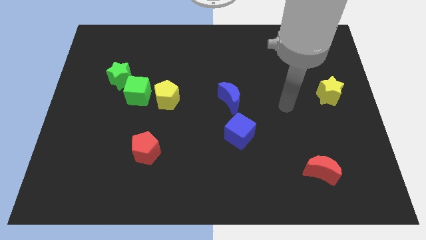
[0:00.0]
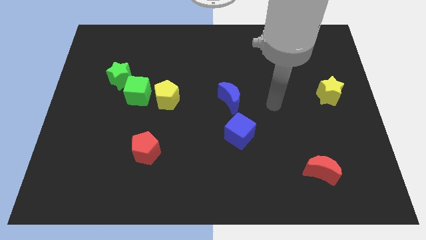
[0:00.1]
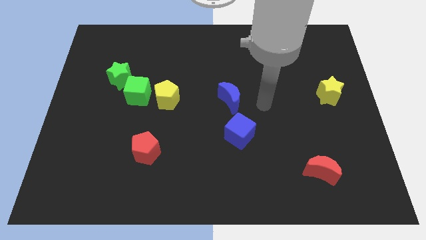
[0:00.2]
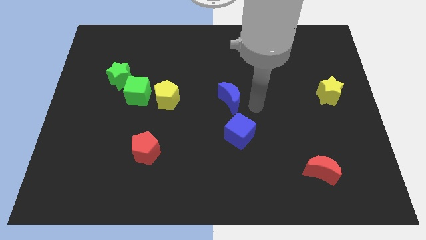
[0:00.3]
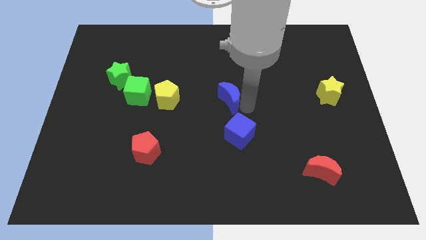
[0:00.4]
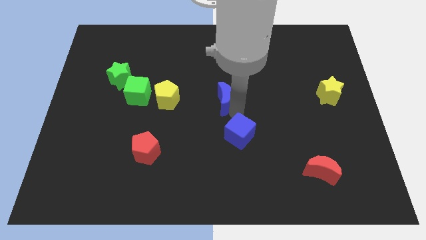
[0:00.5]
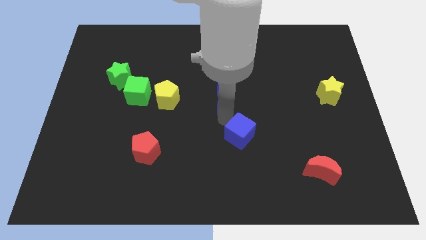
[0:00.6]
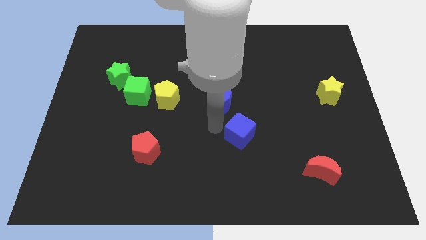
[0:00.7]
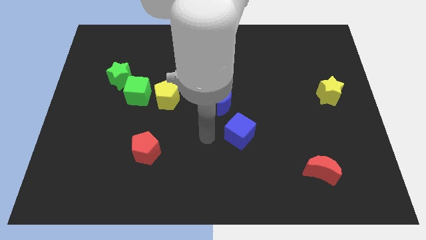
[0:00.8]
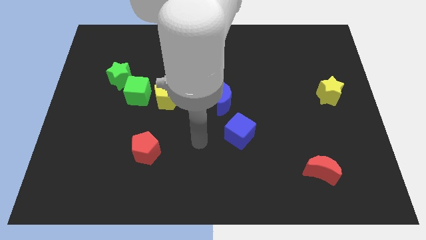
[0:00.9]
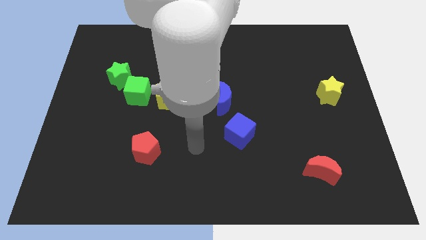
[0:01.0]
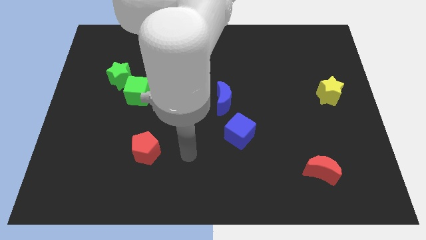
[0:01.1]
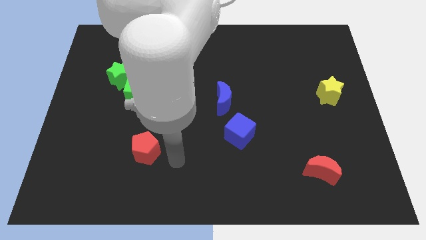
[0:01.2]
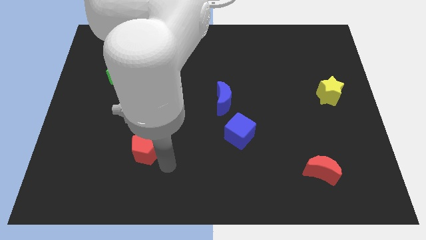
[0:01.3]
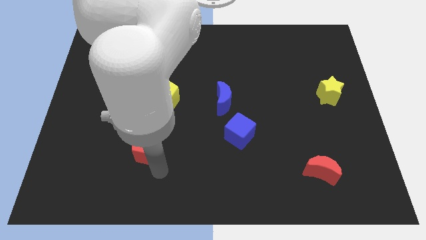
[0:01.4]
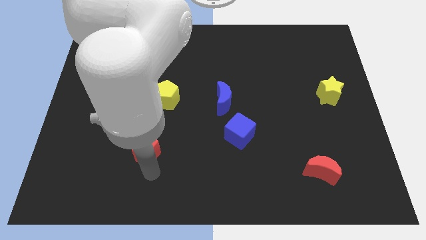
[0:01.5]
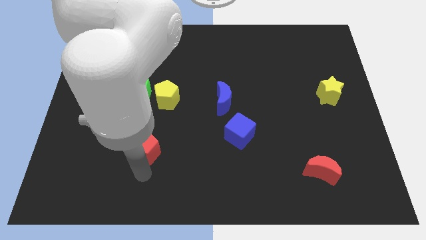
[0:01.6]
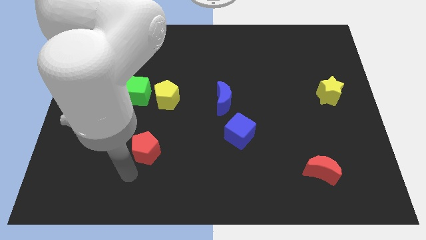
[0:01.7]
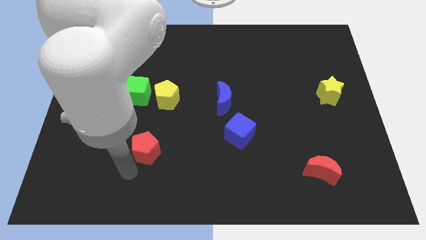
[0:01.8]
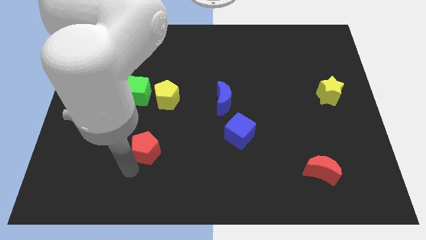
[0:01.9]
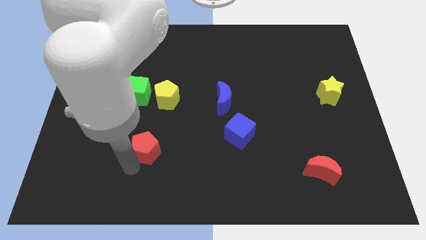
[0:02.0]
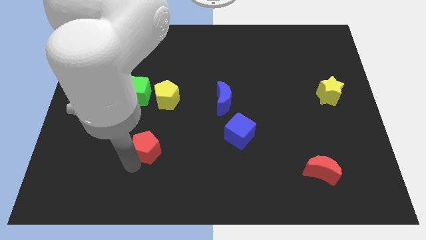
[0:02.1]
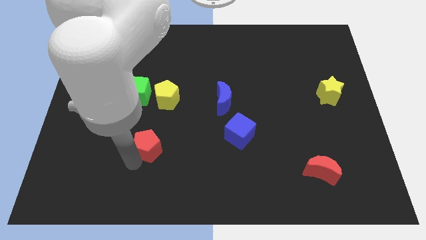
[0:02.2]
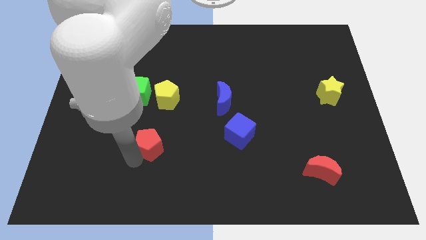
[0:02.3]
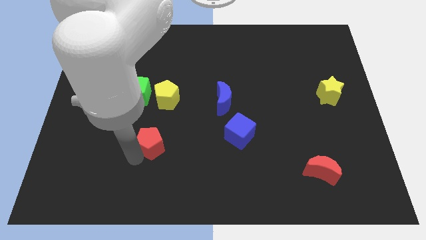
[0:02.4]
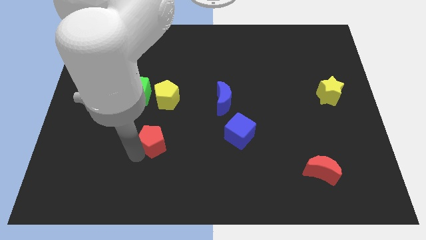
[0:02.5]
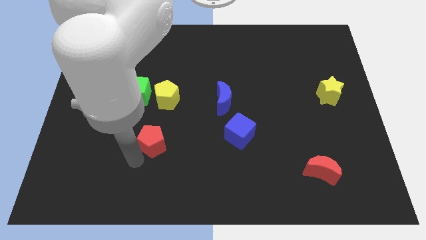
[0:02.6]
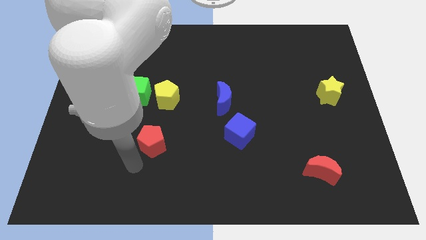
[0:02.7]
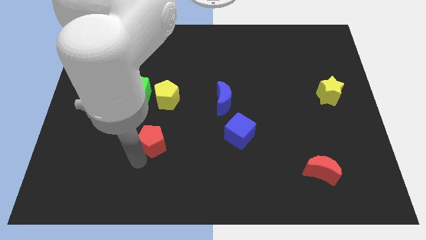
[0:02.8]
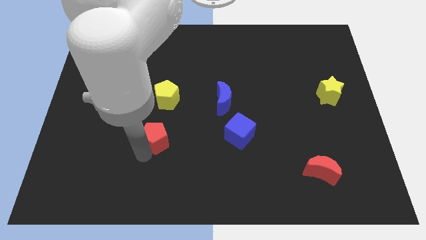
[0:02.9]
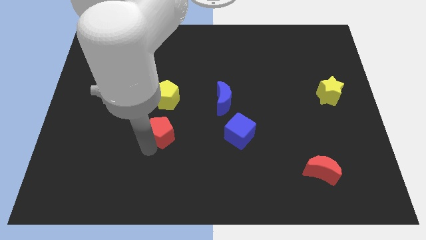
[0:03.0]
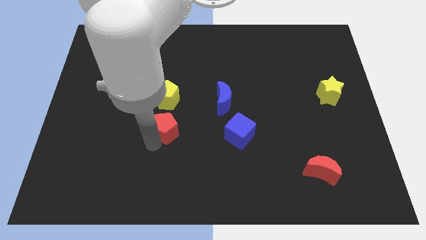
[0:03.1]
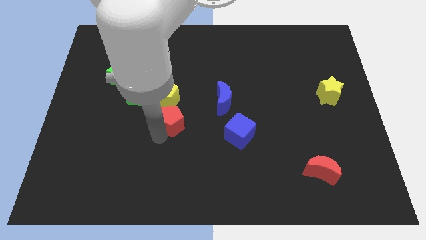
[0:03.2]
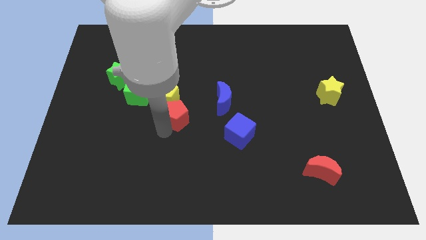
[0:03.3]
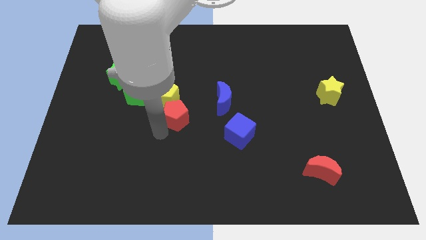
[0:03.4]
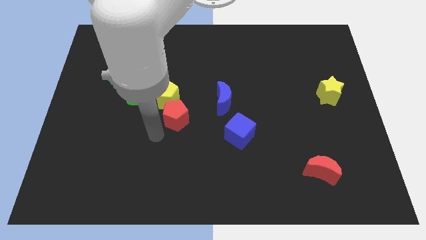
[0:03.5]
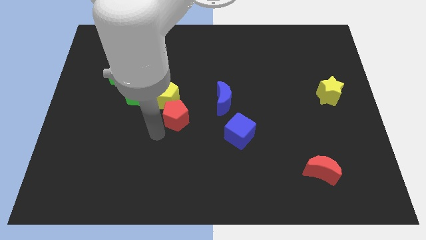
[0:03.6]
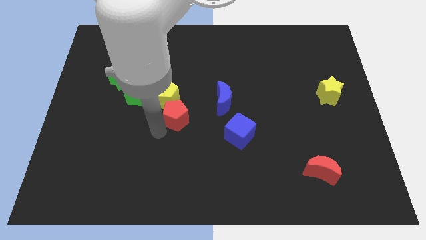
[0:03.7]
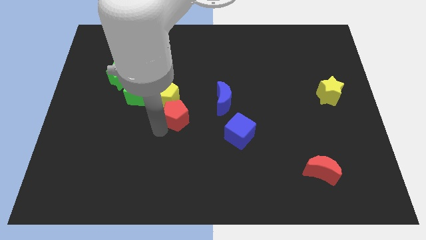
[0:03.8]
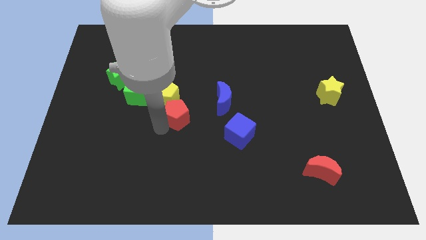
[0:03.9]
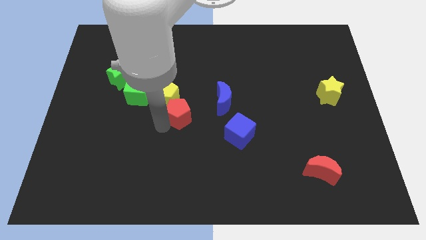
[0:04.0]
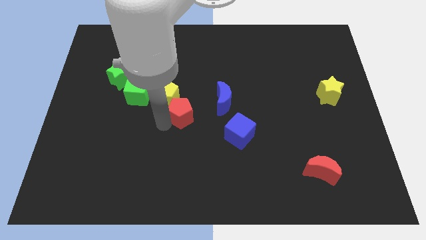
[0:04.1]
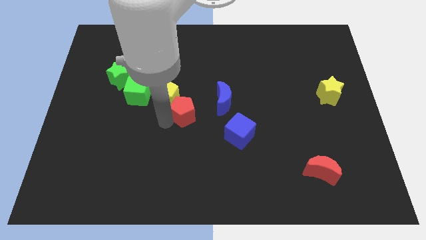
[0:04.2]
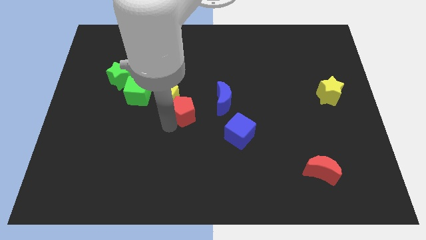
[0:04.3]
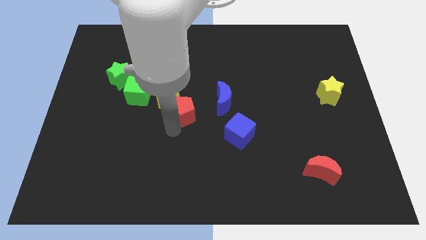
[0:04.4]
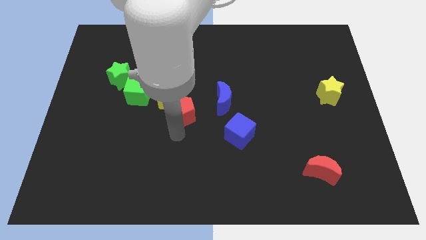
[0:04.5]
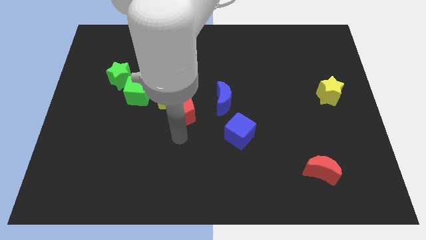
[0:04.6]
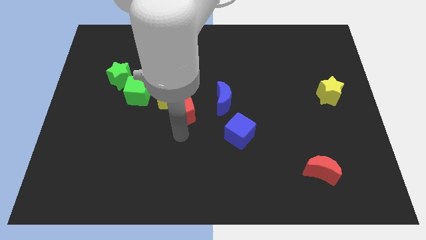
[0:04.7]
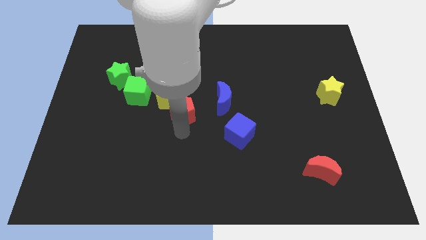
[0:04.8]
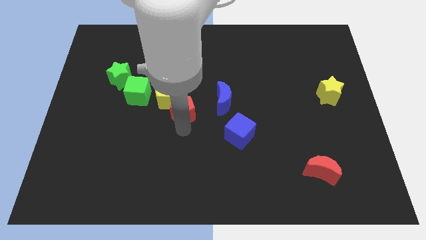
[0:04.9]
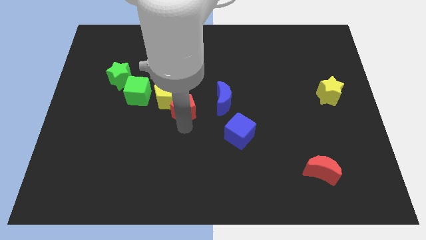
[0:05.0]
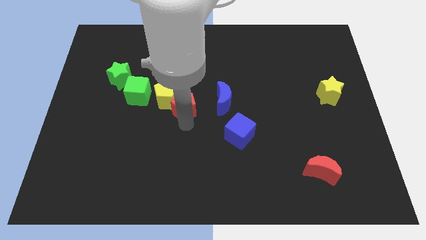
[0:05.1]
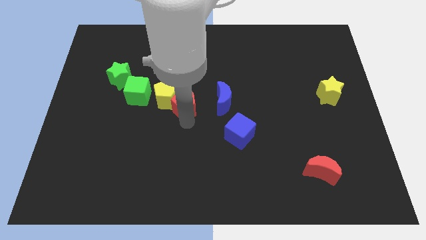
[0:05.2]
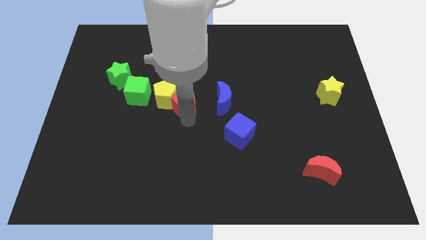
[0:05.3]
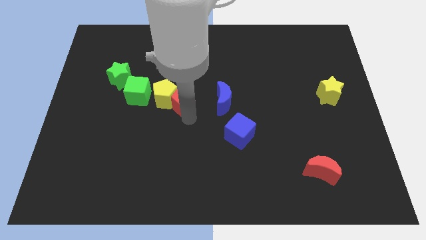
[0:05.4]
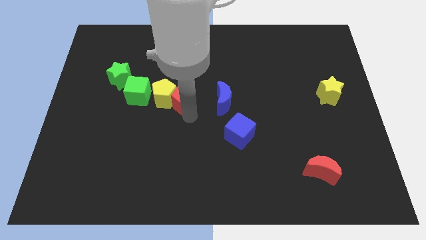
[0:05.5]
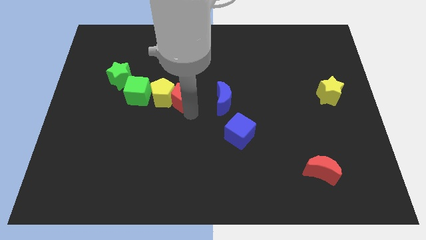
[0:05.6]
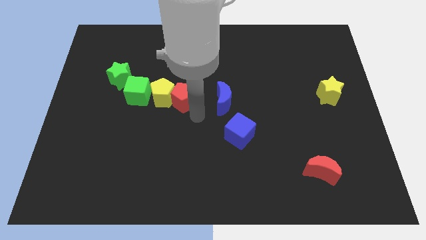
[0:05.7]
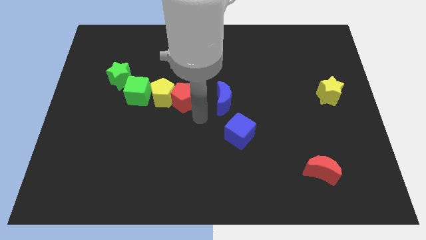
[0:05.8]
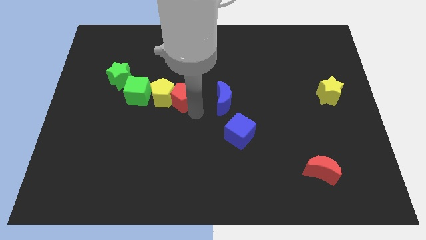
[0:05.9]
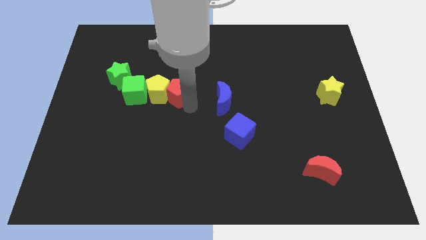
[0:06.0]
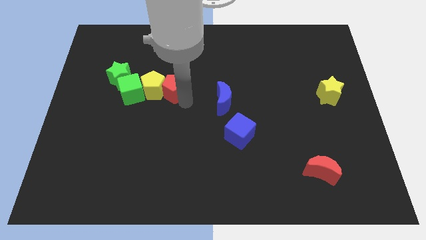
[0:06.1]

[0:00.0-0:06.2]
push the red pentagon right of the green star

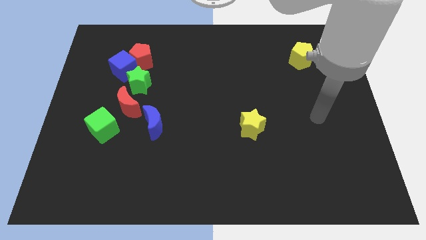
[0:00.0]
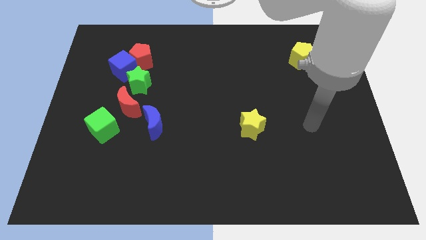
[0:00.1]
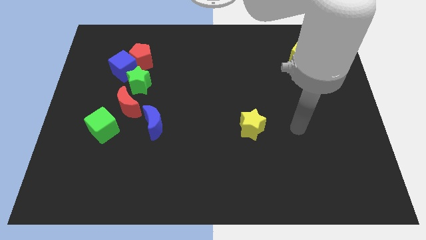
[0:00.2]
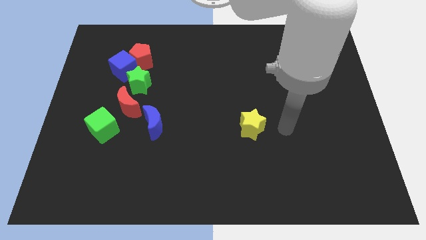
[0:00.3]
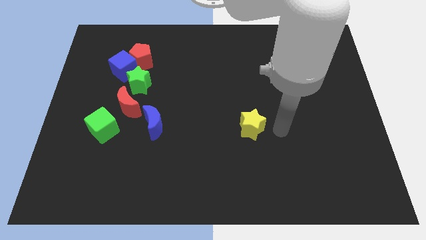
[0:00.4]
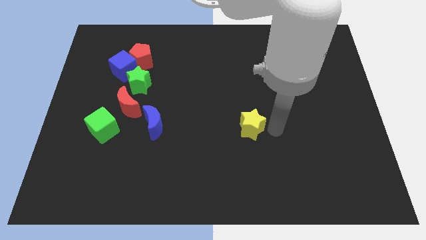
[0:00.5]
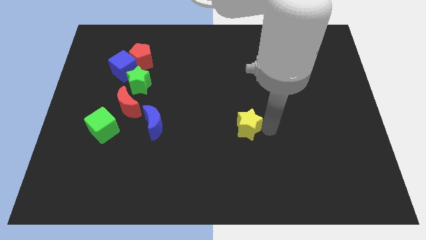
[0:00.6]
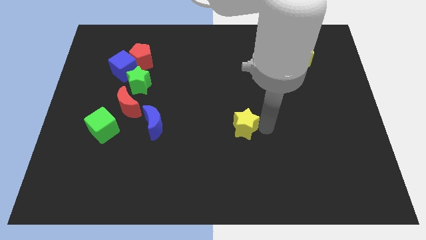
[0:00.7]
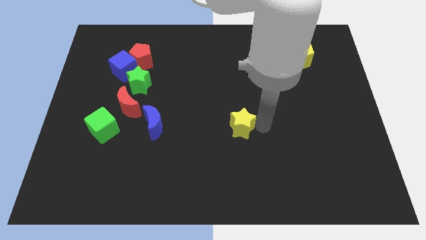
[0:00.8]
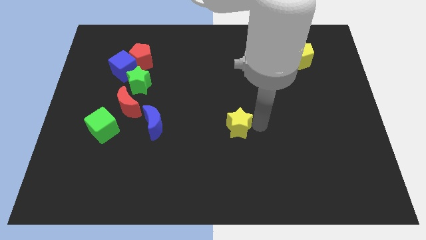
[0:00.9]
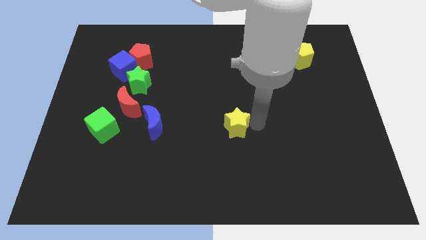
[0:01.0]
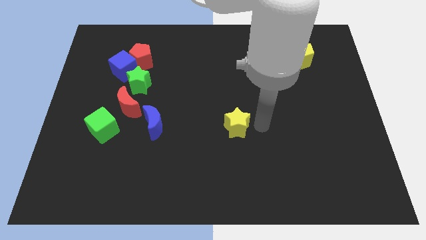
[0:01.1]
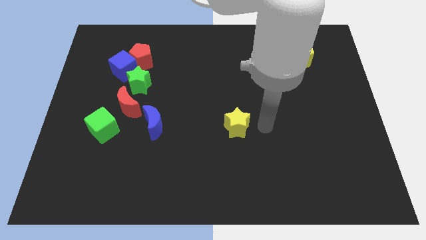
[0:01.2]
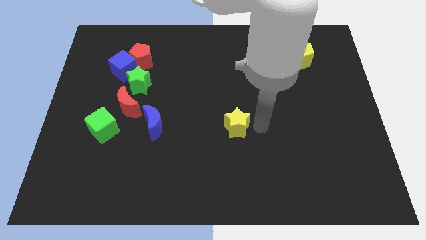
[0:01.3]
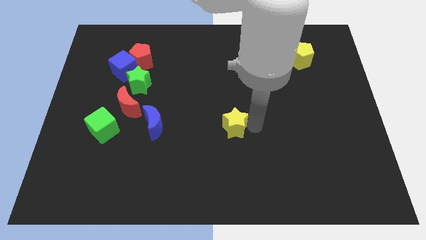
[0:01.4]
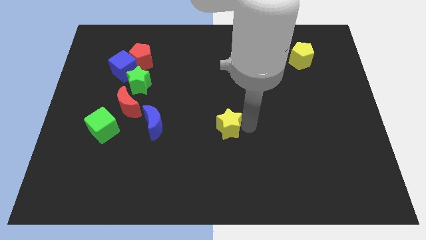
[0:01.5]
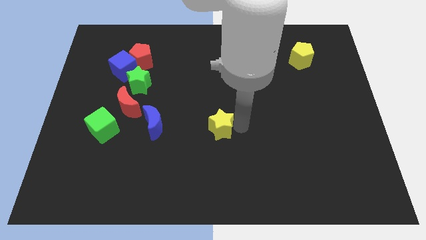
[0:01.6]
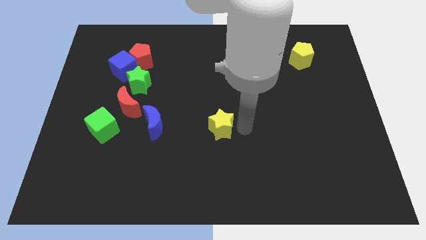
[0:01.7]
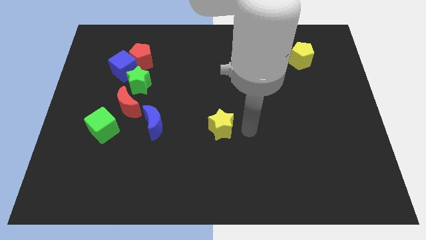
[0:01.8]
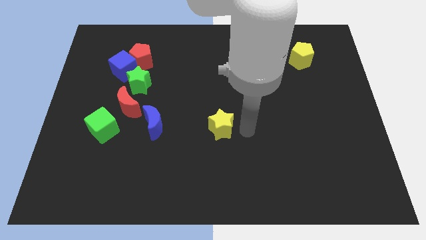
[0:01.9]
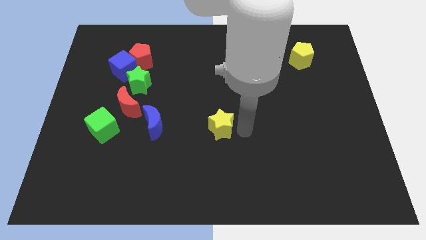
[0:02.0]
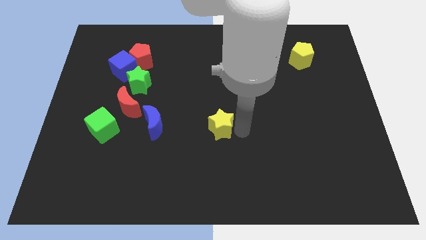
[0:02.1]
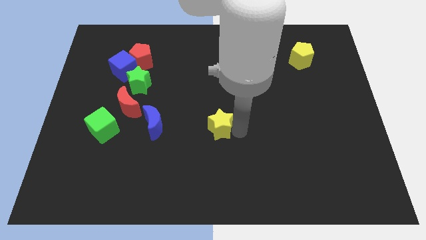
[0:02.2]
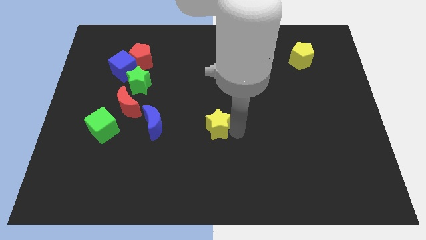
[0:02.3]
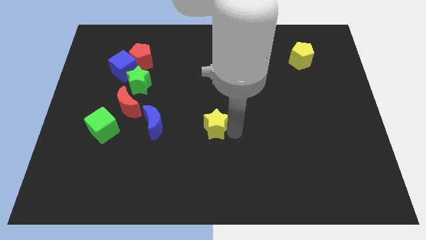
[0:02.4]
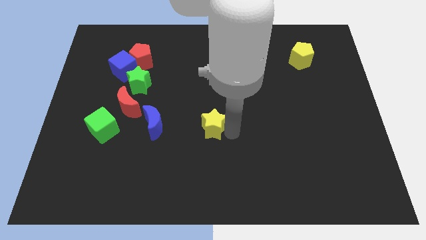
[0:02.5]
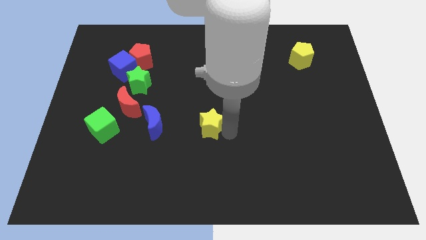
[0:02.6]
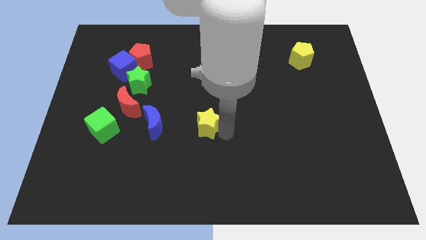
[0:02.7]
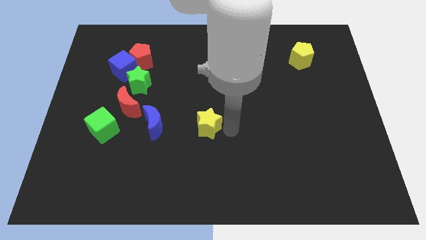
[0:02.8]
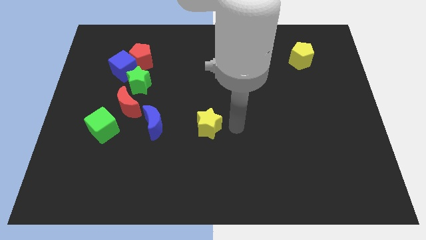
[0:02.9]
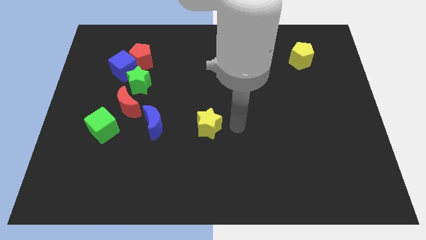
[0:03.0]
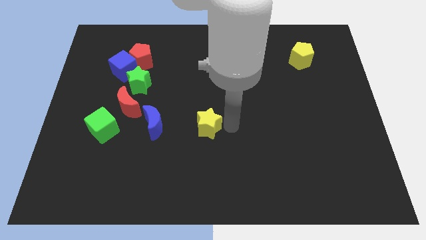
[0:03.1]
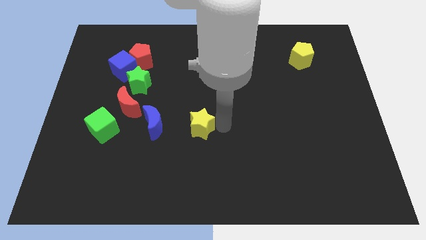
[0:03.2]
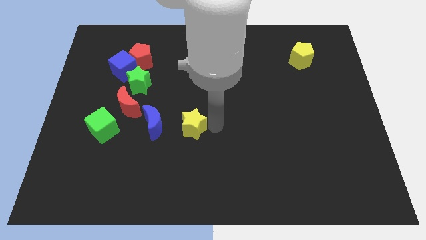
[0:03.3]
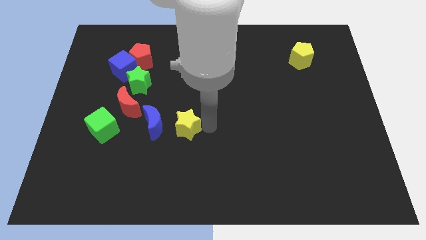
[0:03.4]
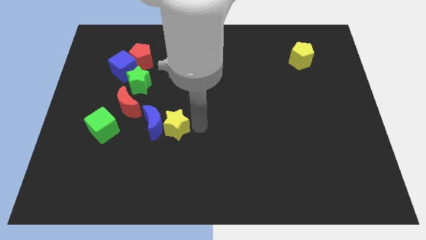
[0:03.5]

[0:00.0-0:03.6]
put the yellow star right of the green cube
